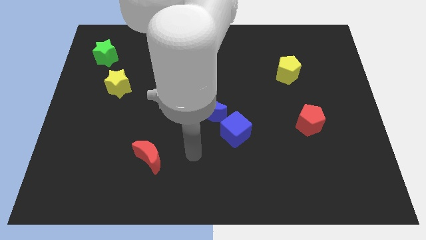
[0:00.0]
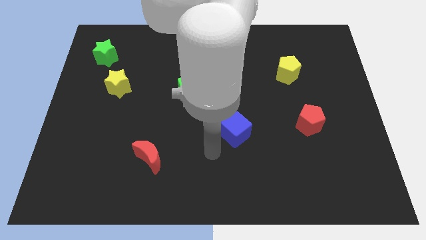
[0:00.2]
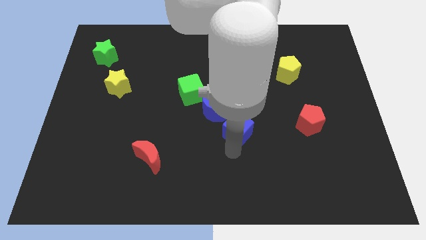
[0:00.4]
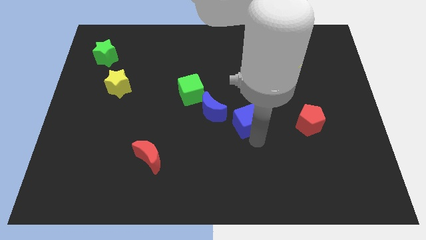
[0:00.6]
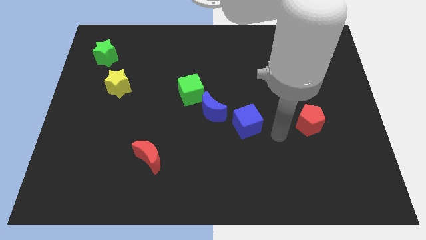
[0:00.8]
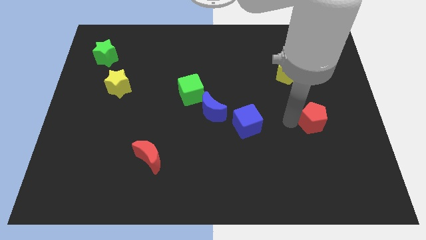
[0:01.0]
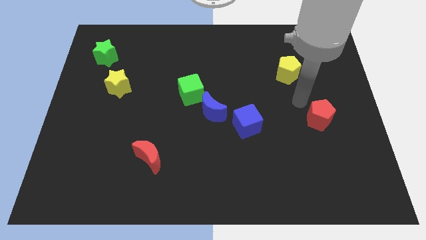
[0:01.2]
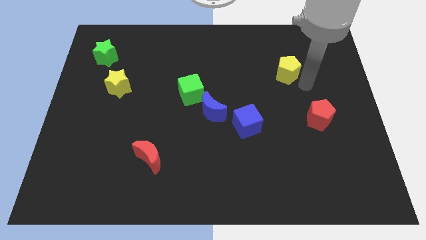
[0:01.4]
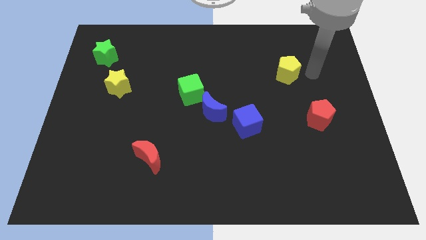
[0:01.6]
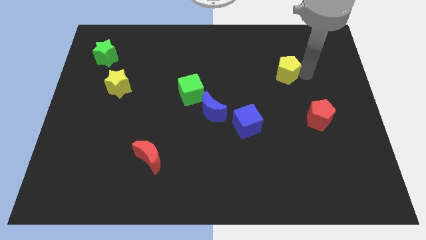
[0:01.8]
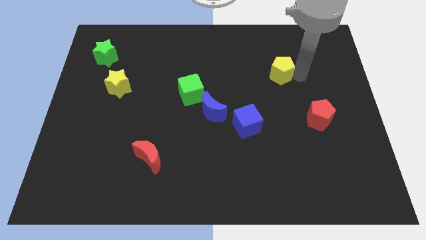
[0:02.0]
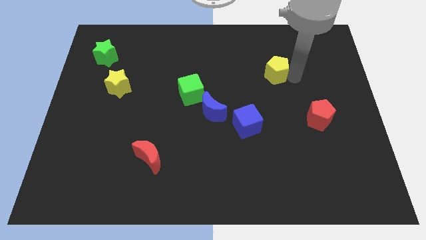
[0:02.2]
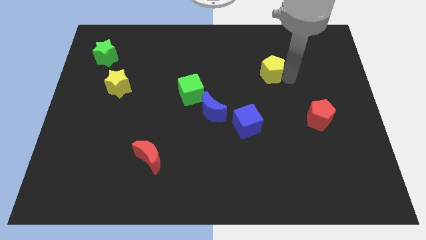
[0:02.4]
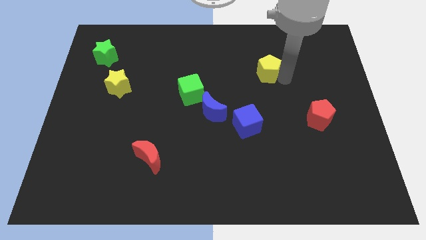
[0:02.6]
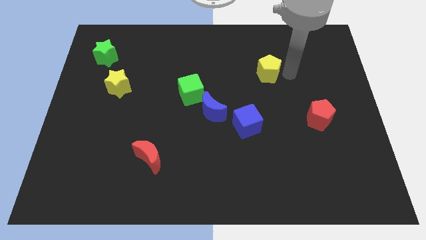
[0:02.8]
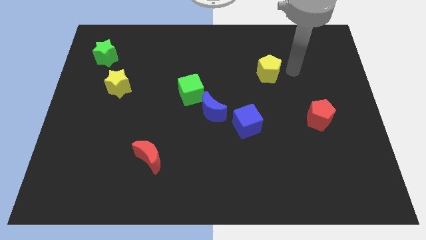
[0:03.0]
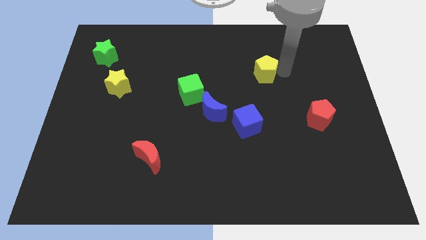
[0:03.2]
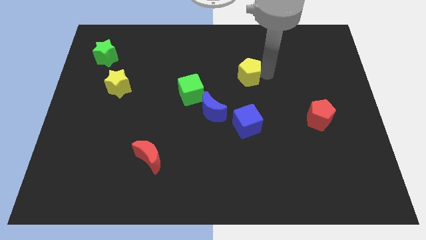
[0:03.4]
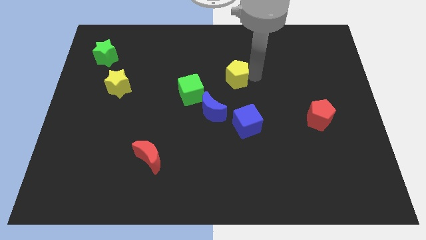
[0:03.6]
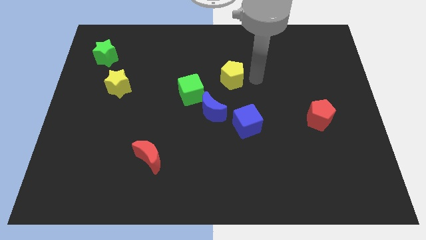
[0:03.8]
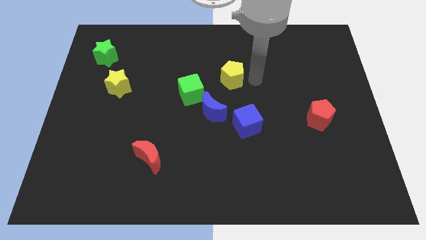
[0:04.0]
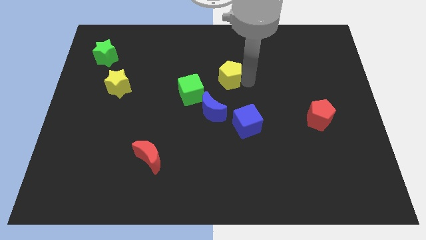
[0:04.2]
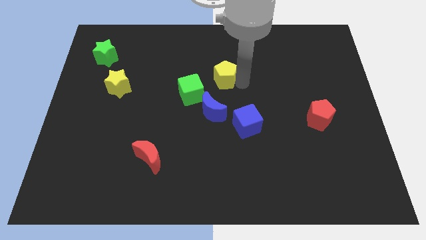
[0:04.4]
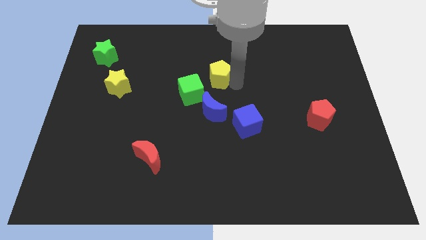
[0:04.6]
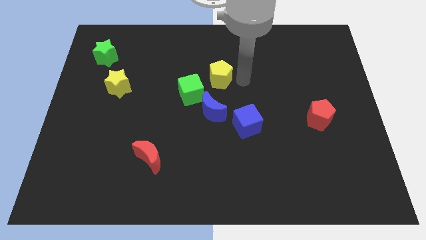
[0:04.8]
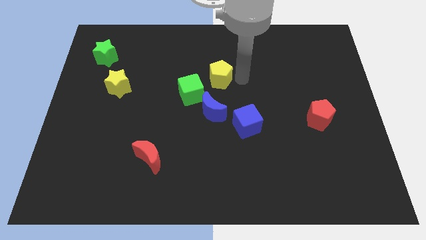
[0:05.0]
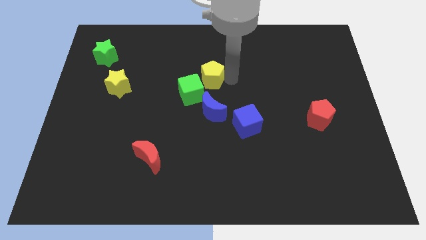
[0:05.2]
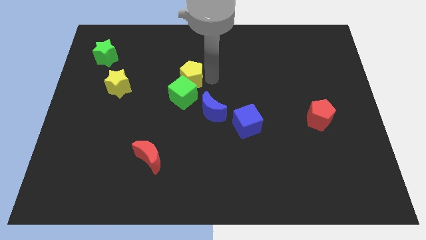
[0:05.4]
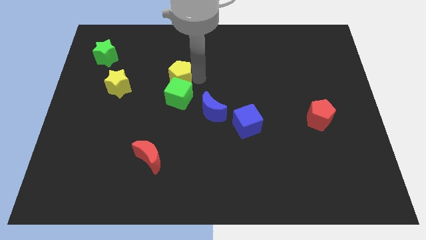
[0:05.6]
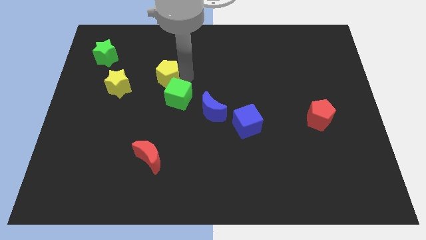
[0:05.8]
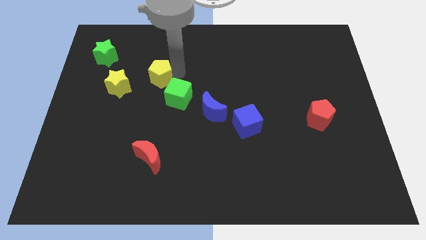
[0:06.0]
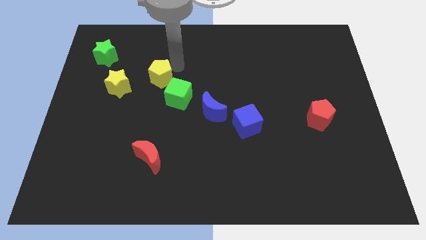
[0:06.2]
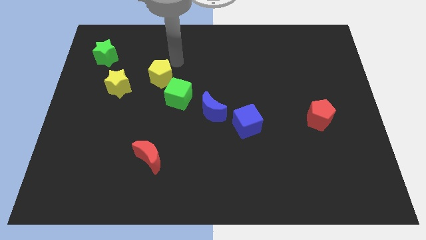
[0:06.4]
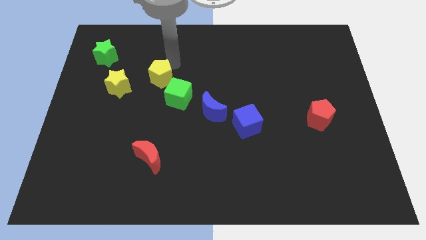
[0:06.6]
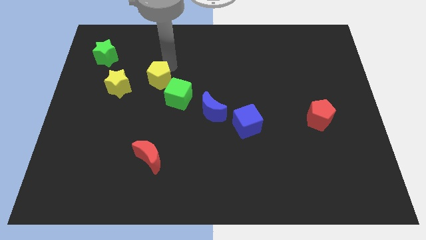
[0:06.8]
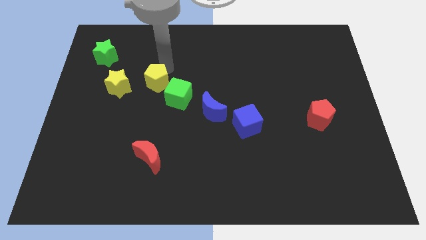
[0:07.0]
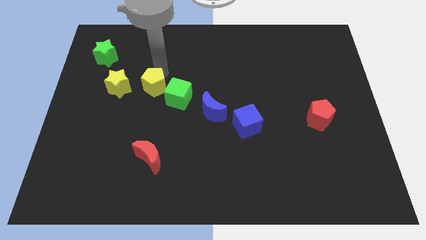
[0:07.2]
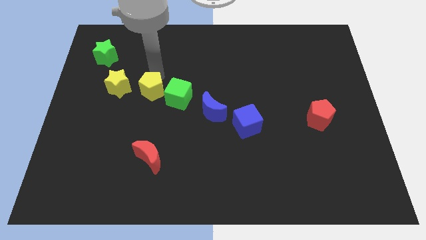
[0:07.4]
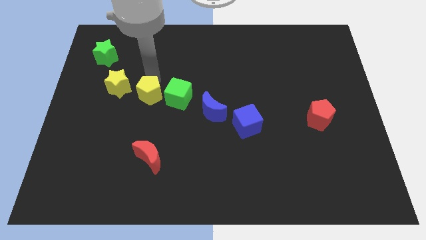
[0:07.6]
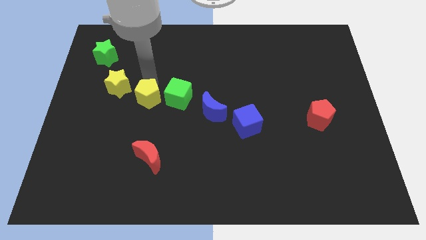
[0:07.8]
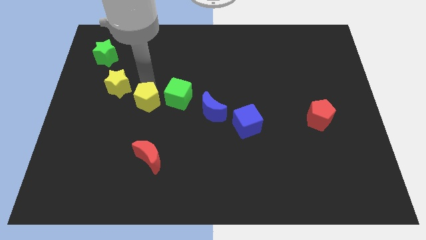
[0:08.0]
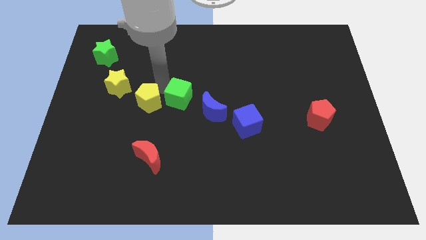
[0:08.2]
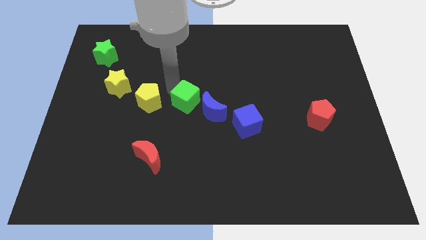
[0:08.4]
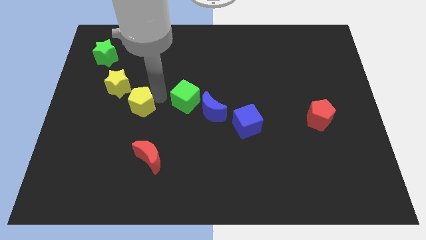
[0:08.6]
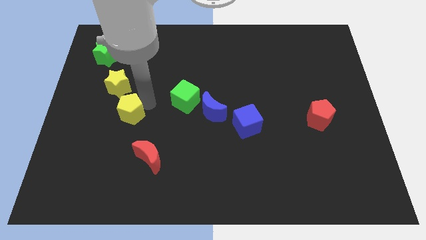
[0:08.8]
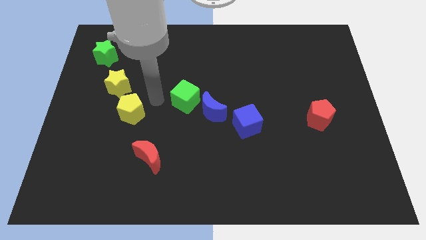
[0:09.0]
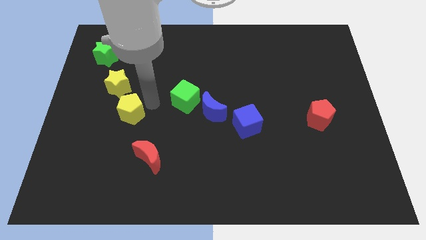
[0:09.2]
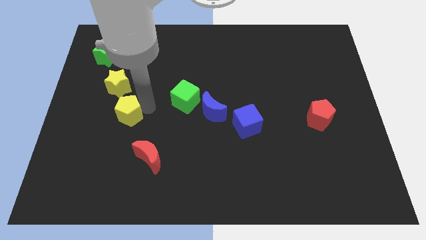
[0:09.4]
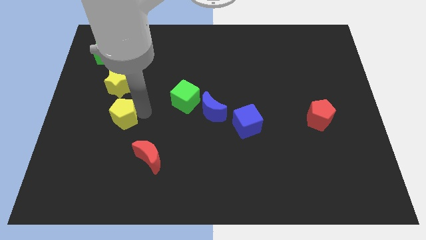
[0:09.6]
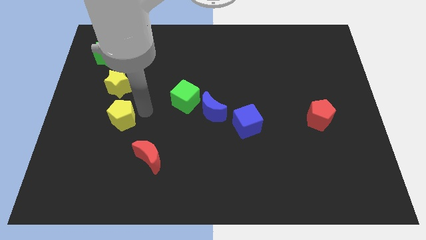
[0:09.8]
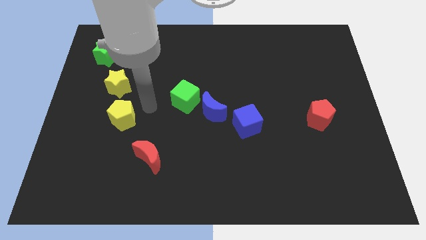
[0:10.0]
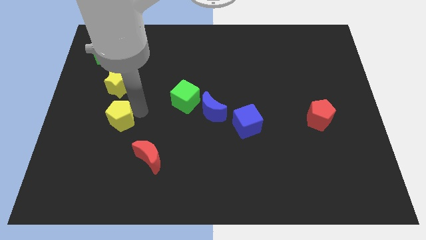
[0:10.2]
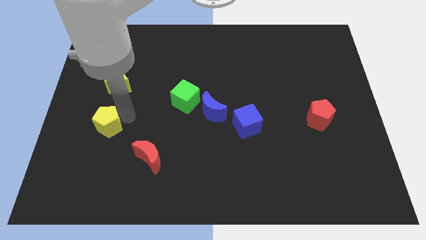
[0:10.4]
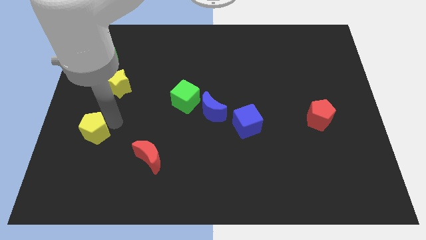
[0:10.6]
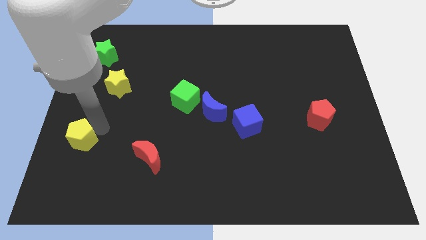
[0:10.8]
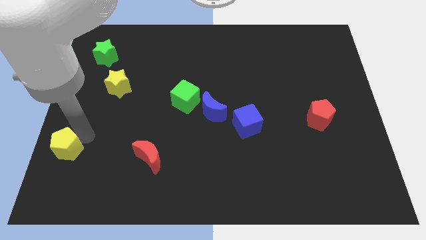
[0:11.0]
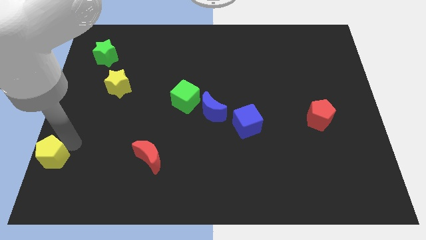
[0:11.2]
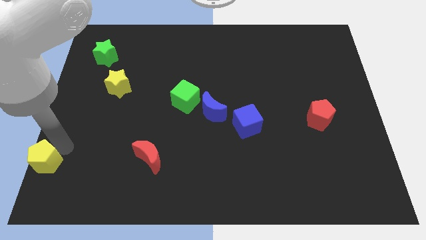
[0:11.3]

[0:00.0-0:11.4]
slide the yellow pentagon to the bottom left

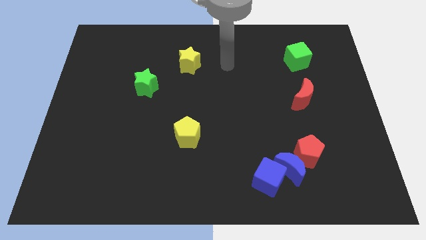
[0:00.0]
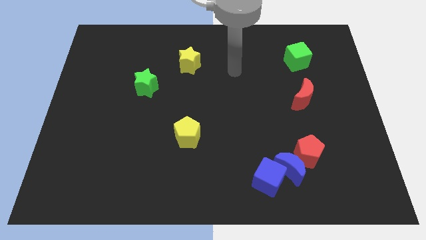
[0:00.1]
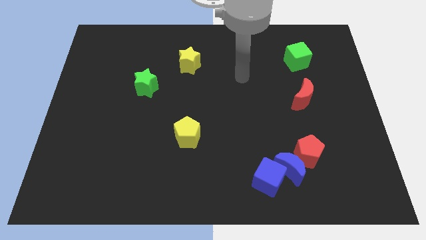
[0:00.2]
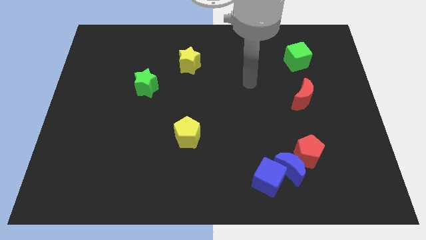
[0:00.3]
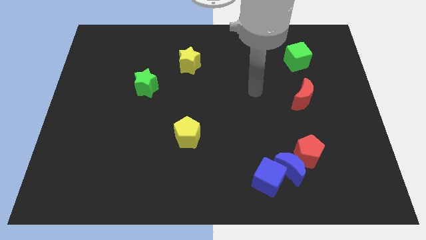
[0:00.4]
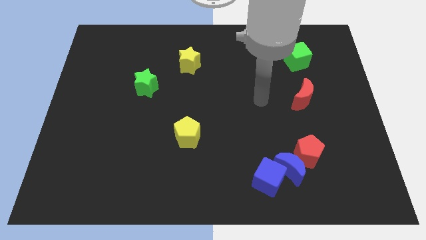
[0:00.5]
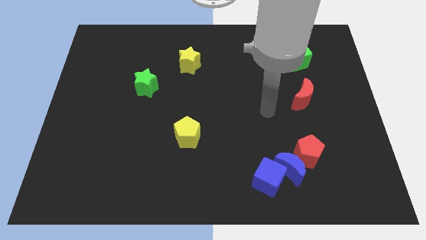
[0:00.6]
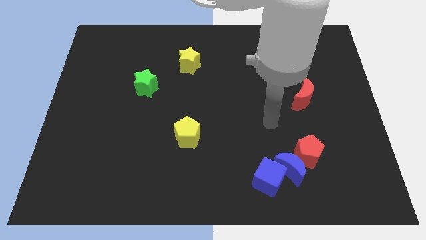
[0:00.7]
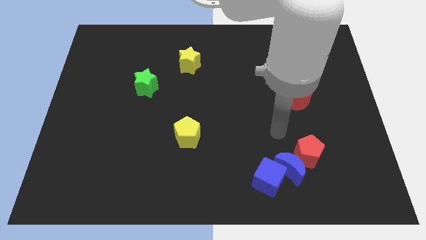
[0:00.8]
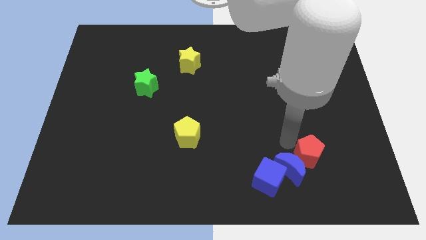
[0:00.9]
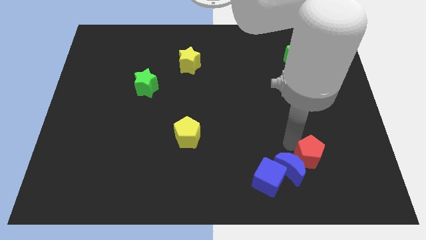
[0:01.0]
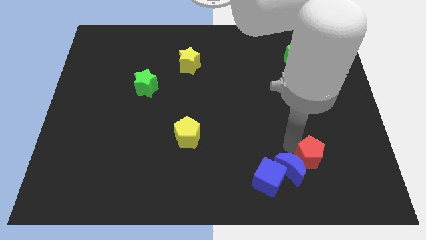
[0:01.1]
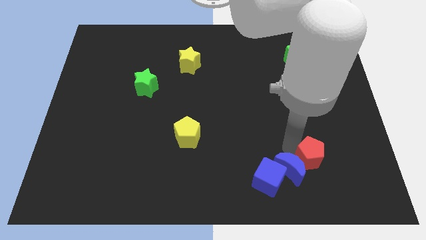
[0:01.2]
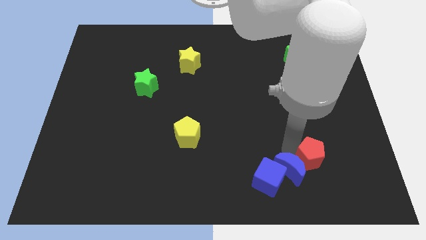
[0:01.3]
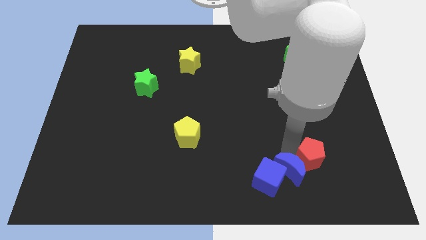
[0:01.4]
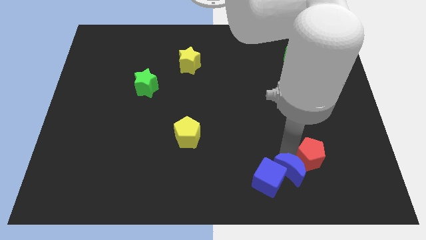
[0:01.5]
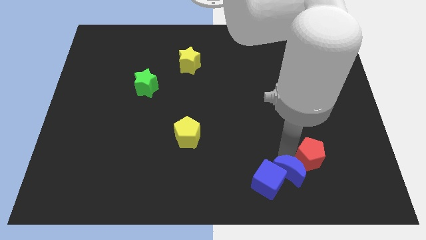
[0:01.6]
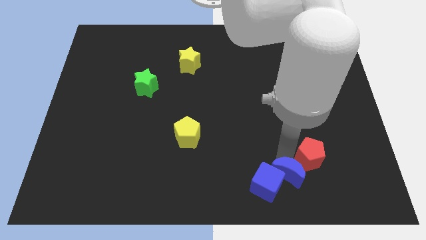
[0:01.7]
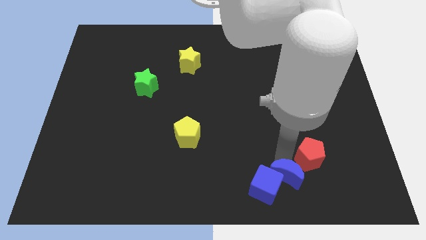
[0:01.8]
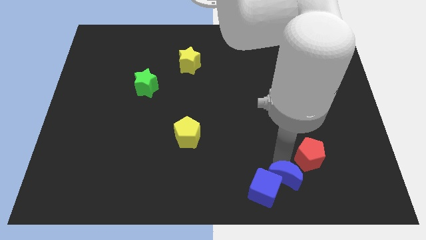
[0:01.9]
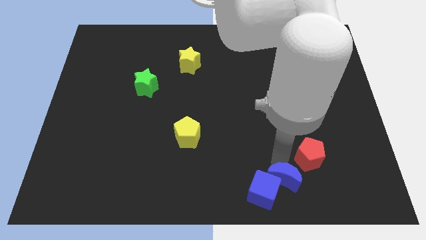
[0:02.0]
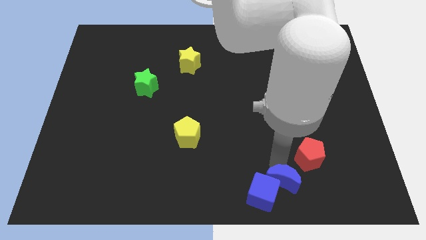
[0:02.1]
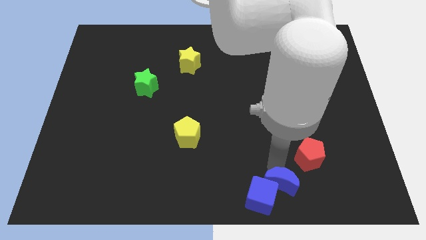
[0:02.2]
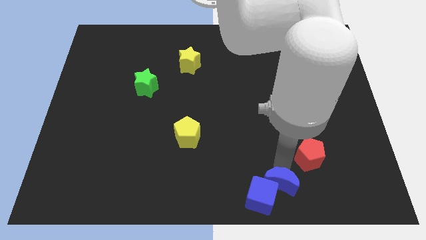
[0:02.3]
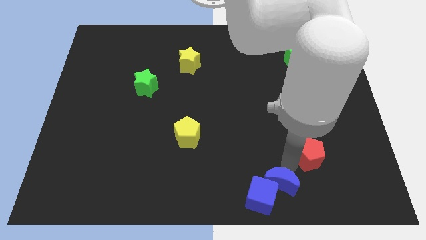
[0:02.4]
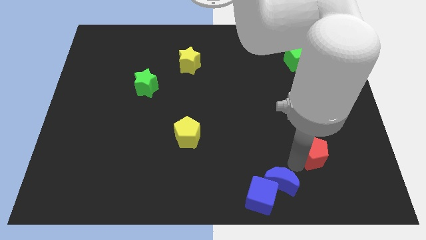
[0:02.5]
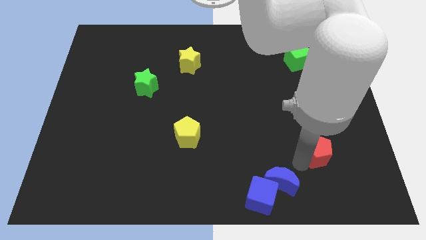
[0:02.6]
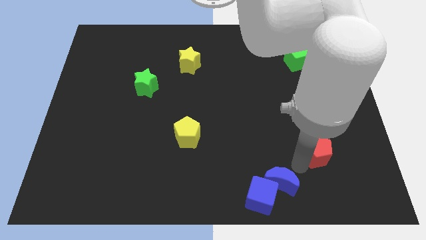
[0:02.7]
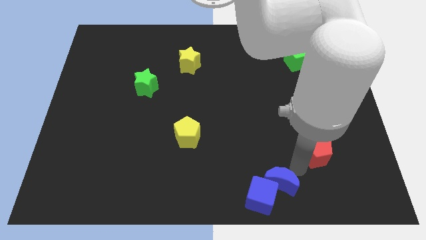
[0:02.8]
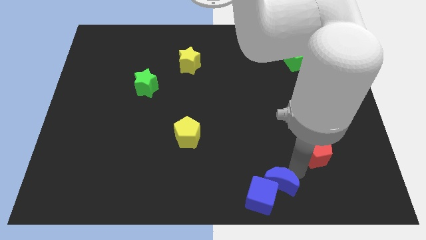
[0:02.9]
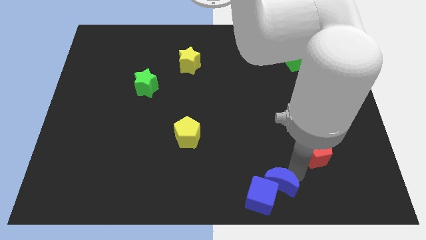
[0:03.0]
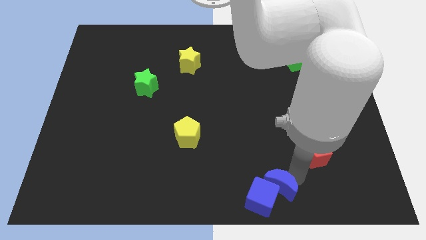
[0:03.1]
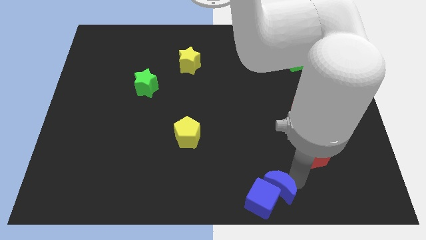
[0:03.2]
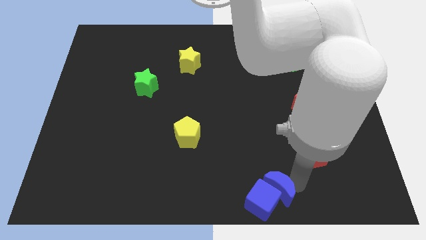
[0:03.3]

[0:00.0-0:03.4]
put the blue moon to the bottom side
